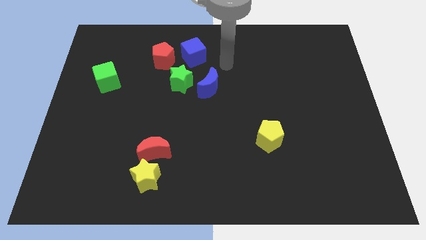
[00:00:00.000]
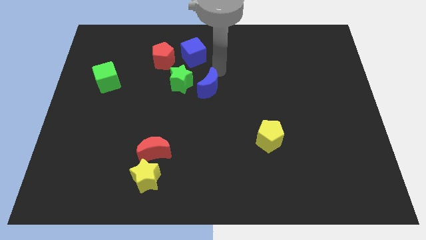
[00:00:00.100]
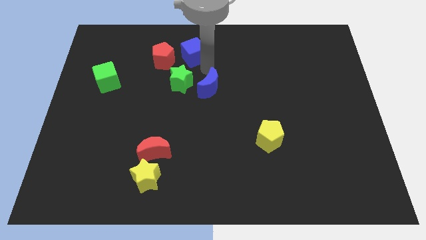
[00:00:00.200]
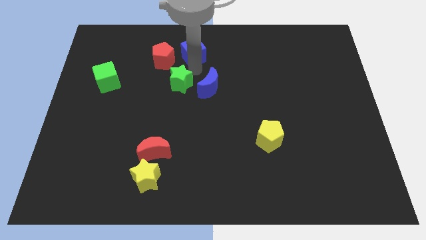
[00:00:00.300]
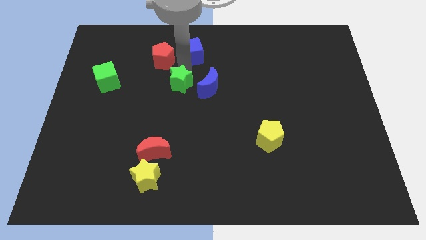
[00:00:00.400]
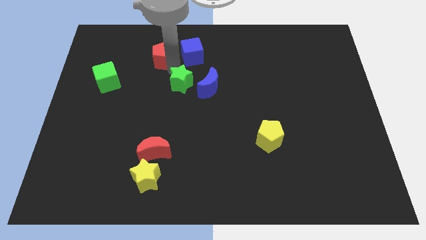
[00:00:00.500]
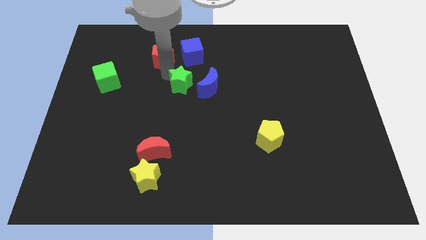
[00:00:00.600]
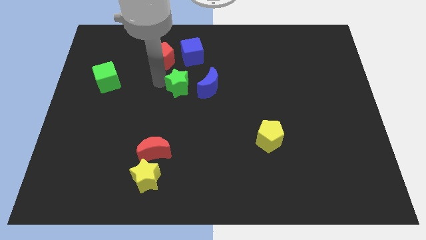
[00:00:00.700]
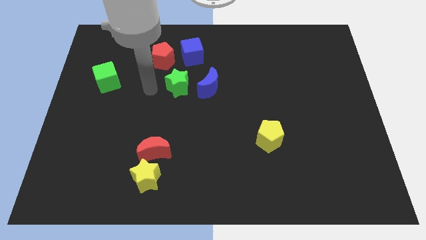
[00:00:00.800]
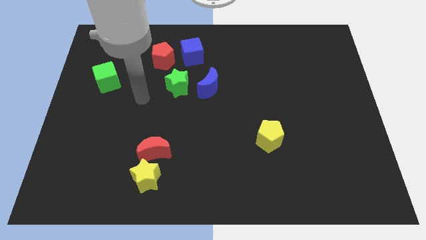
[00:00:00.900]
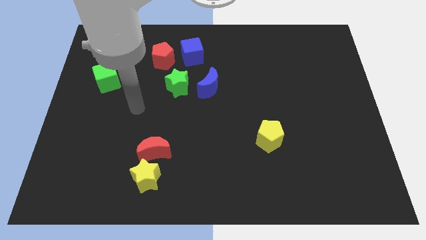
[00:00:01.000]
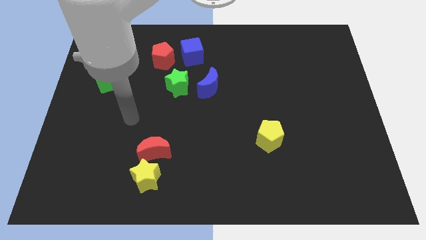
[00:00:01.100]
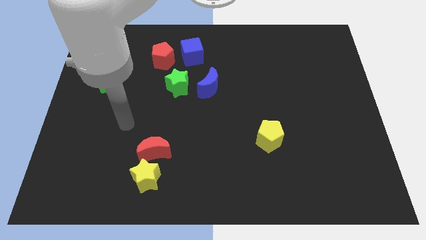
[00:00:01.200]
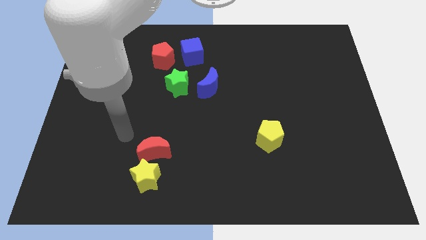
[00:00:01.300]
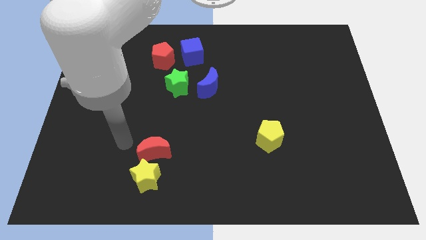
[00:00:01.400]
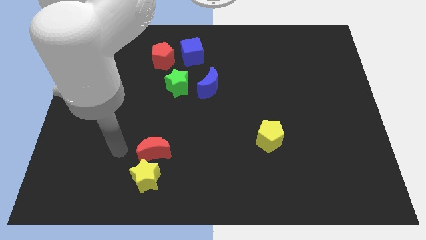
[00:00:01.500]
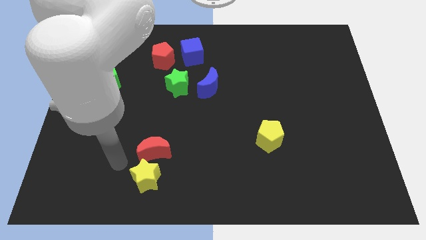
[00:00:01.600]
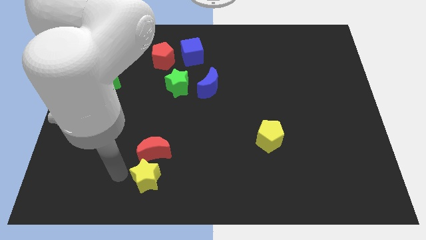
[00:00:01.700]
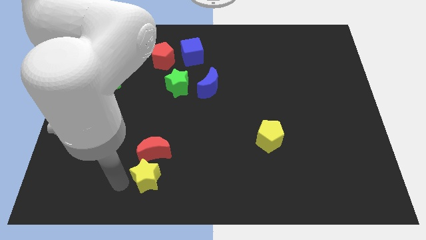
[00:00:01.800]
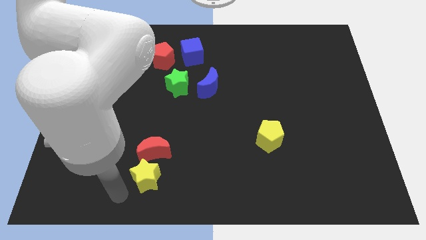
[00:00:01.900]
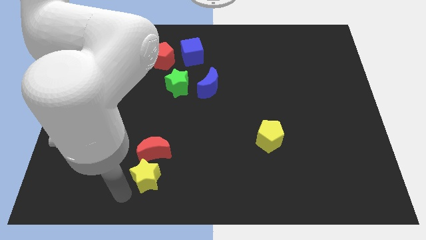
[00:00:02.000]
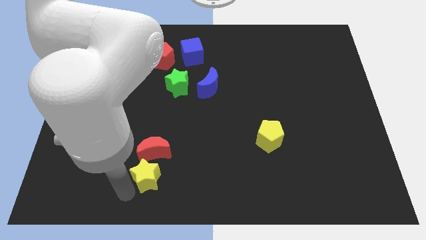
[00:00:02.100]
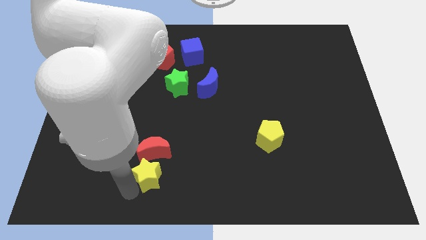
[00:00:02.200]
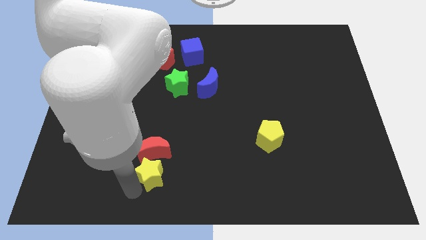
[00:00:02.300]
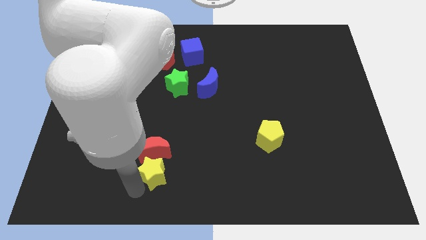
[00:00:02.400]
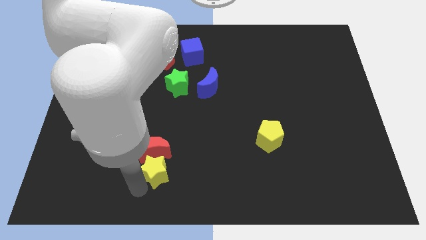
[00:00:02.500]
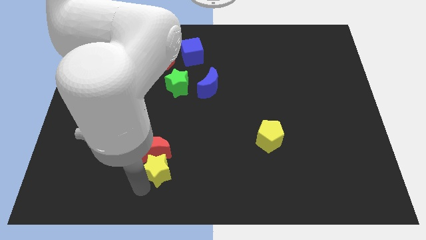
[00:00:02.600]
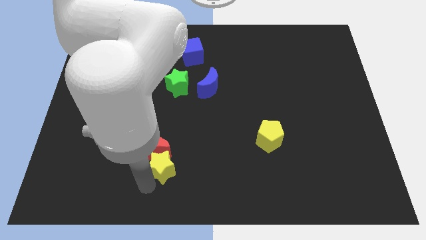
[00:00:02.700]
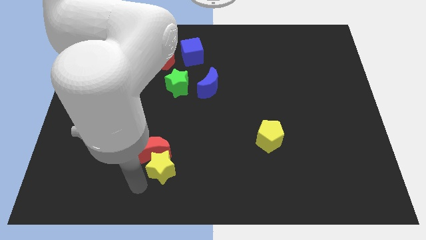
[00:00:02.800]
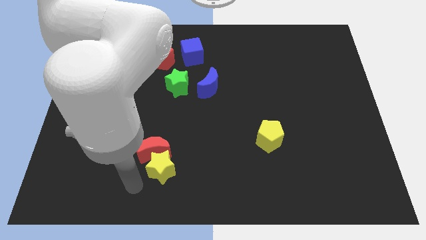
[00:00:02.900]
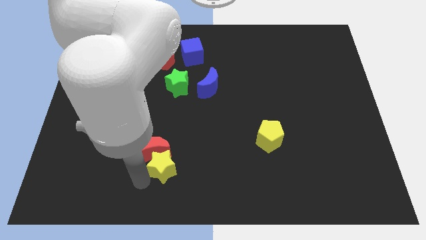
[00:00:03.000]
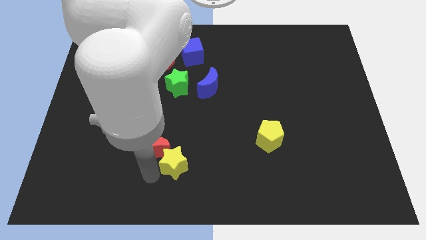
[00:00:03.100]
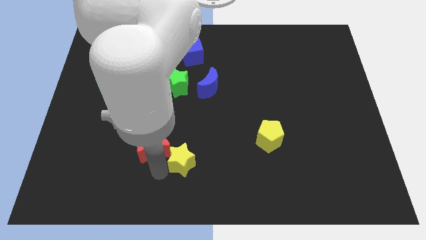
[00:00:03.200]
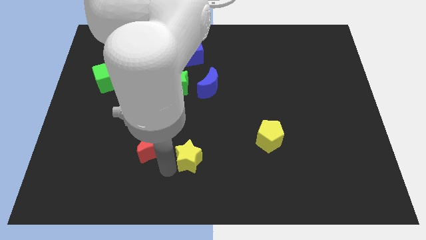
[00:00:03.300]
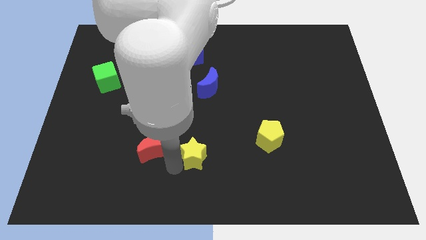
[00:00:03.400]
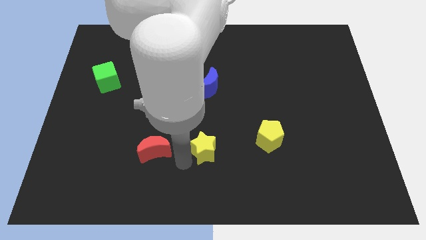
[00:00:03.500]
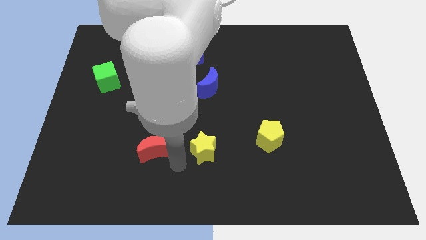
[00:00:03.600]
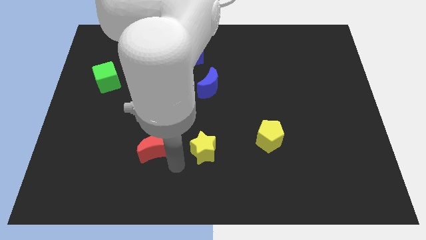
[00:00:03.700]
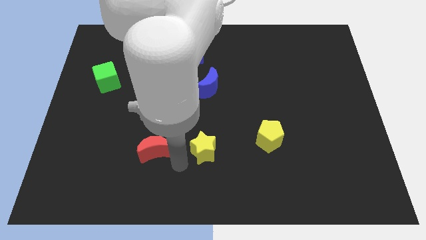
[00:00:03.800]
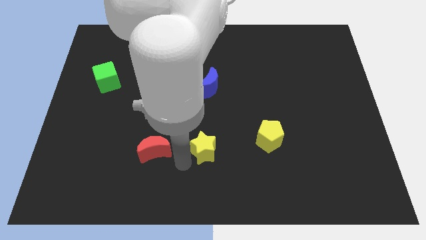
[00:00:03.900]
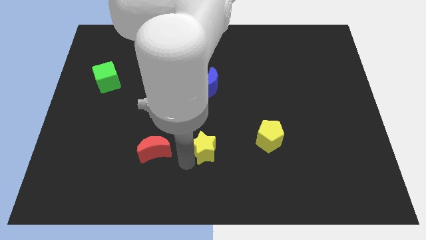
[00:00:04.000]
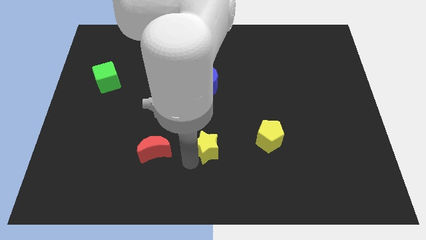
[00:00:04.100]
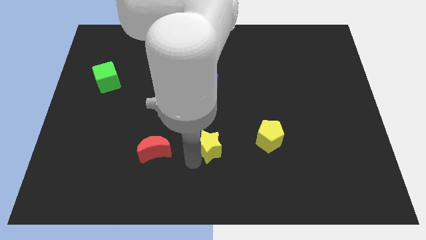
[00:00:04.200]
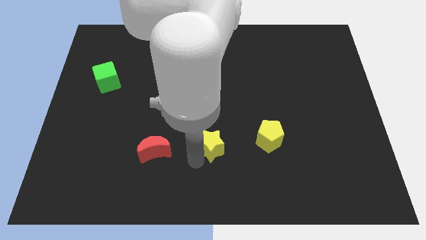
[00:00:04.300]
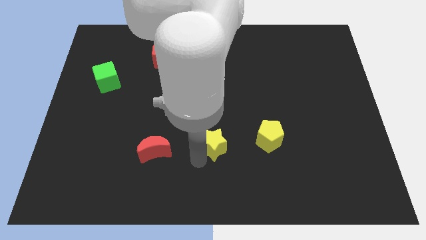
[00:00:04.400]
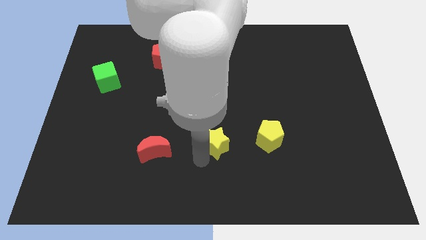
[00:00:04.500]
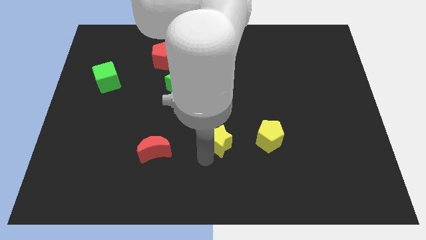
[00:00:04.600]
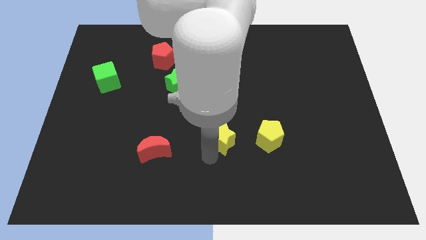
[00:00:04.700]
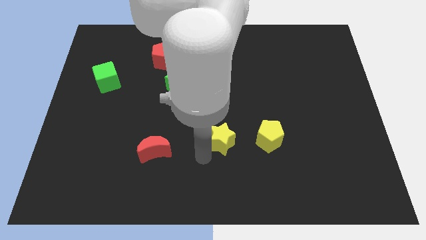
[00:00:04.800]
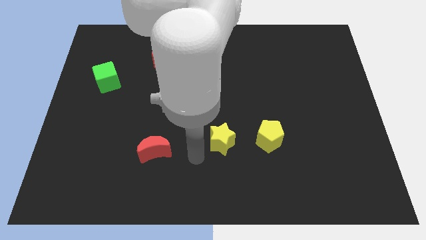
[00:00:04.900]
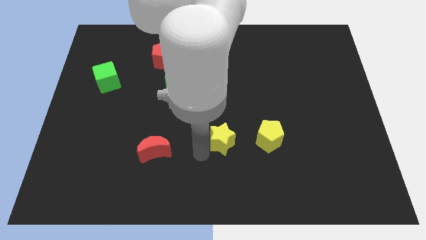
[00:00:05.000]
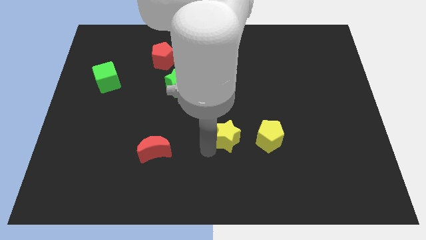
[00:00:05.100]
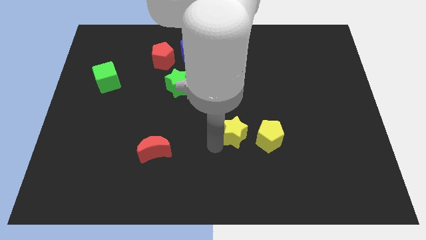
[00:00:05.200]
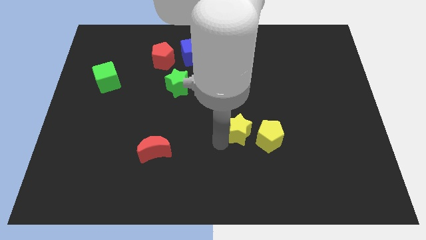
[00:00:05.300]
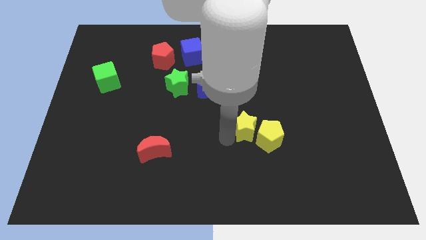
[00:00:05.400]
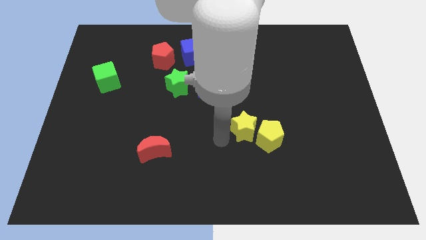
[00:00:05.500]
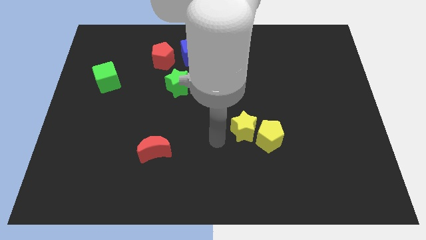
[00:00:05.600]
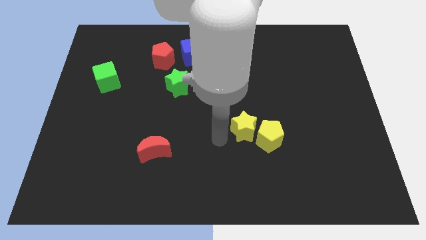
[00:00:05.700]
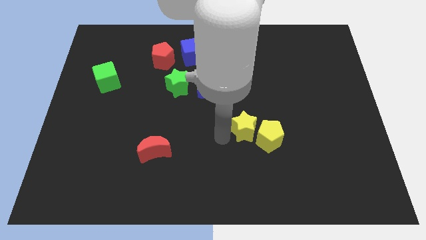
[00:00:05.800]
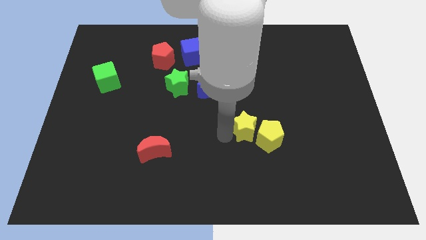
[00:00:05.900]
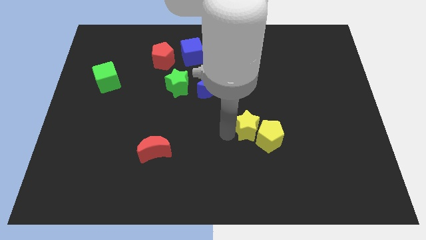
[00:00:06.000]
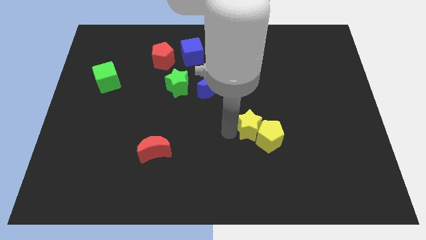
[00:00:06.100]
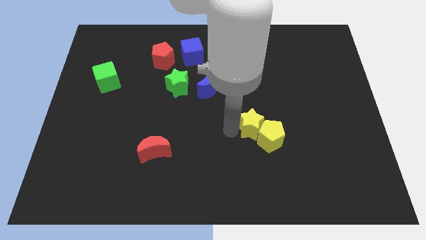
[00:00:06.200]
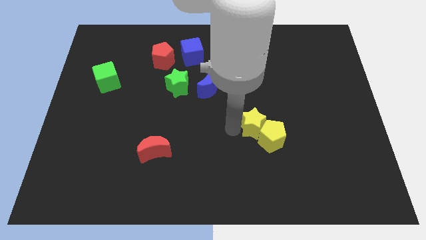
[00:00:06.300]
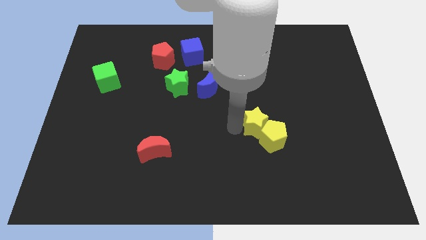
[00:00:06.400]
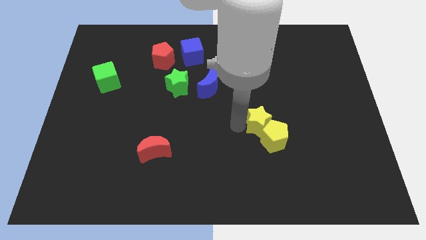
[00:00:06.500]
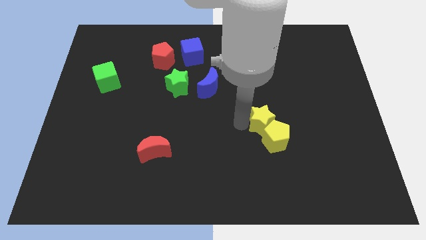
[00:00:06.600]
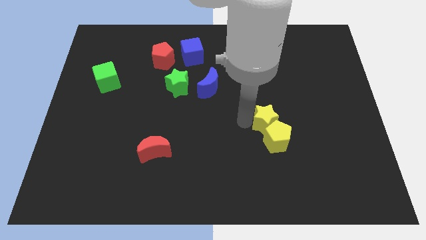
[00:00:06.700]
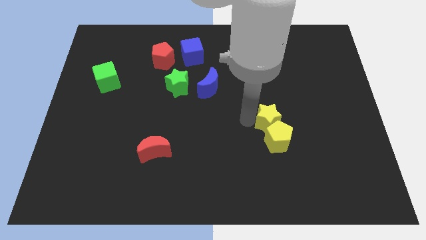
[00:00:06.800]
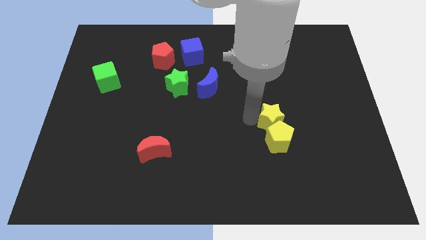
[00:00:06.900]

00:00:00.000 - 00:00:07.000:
move the yellow star to the top right side of the yellow pentagon
